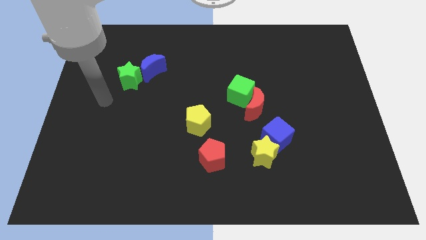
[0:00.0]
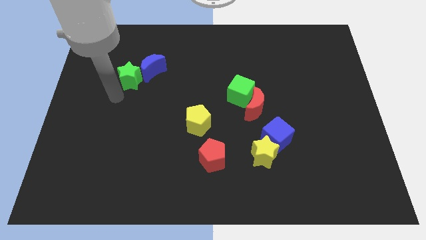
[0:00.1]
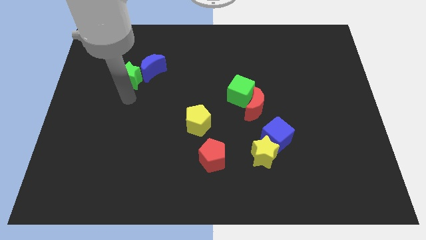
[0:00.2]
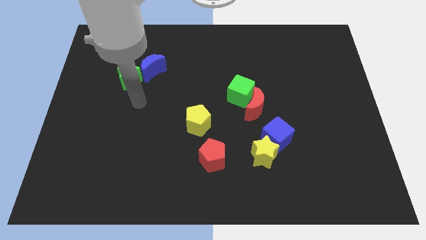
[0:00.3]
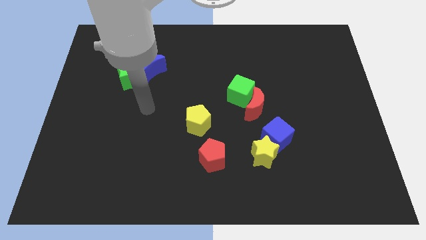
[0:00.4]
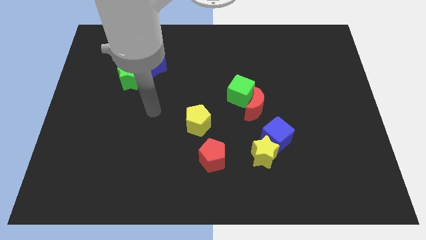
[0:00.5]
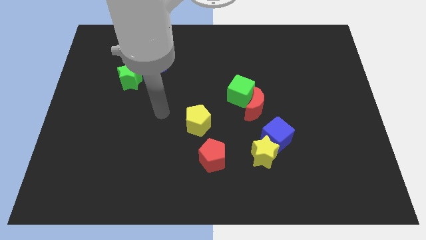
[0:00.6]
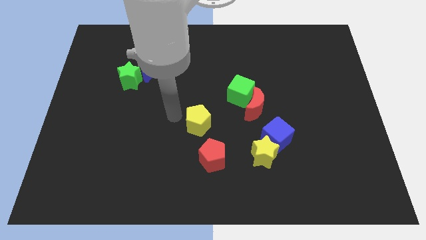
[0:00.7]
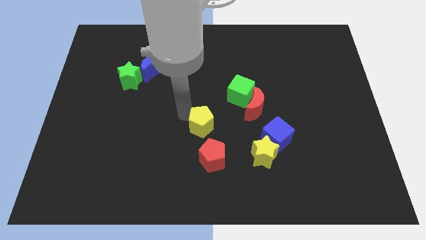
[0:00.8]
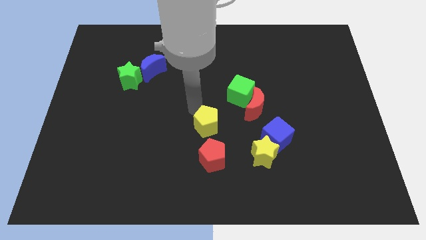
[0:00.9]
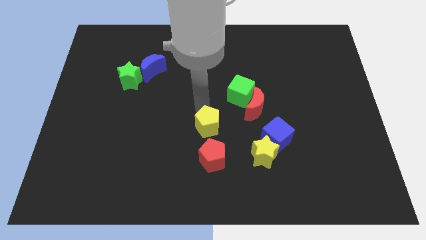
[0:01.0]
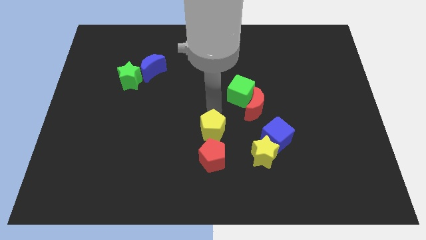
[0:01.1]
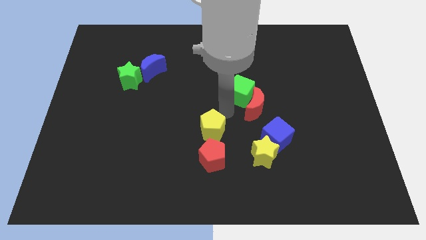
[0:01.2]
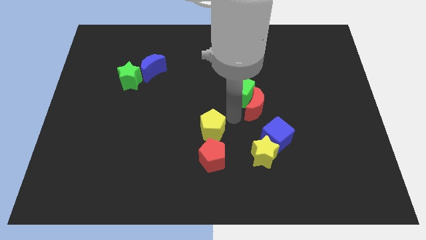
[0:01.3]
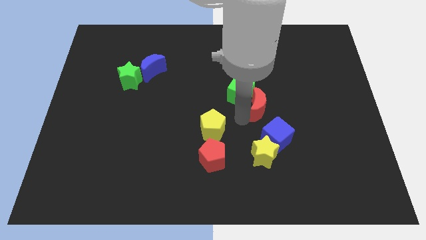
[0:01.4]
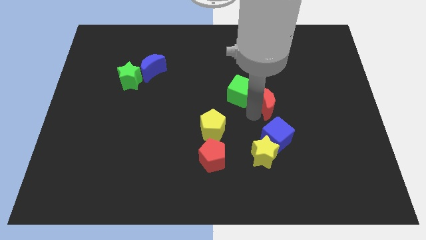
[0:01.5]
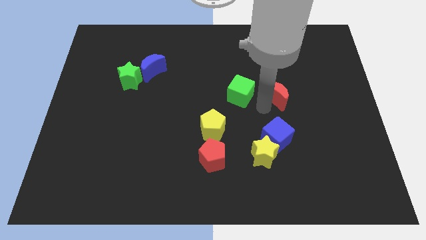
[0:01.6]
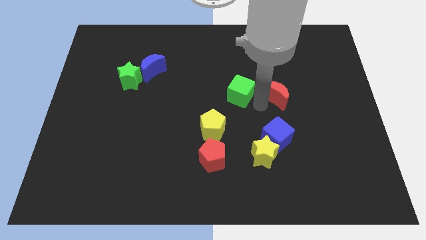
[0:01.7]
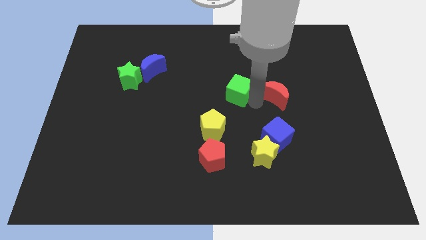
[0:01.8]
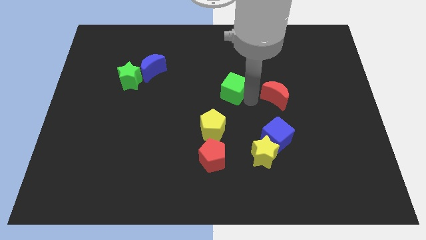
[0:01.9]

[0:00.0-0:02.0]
pull the green cube apart from the red moon

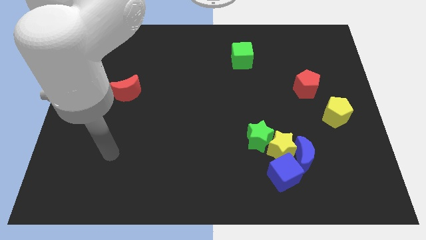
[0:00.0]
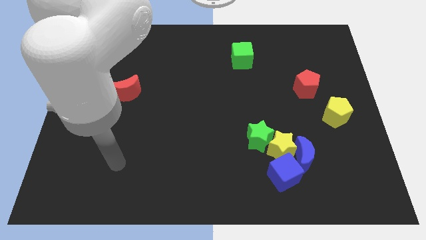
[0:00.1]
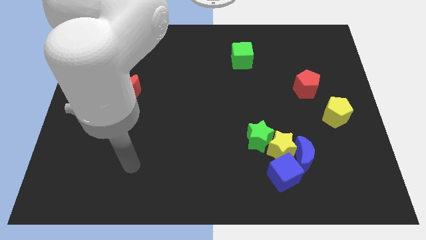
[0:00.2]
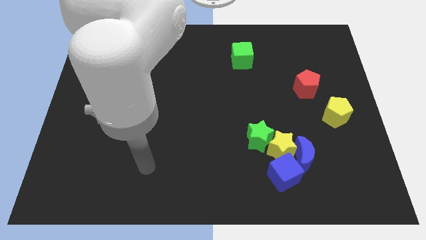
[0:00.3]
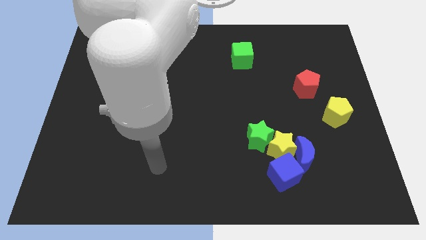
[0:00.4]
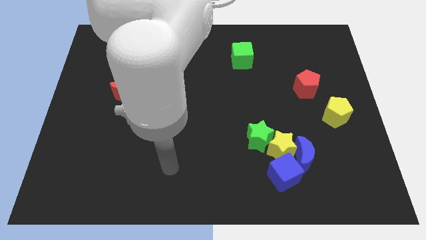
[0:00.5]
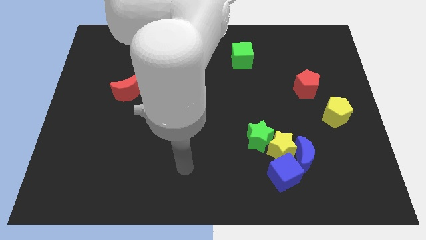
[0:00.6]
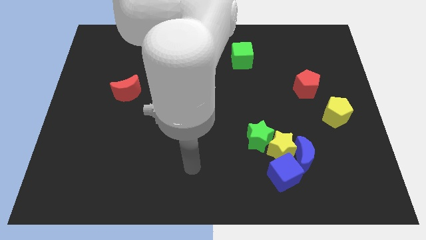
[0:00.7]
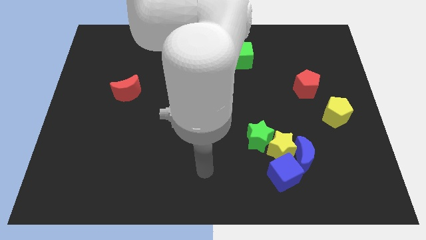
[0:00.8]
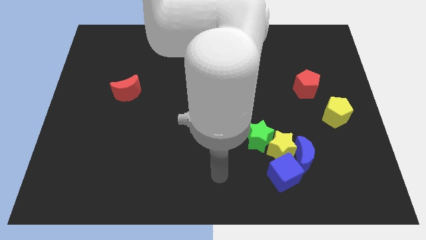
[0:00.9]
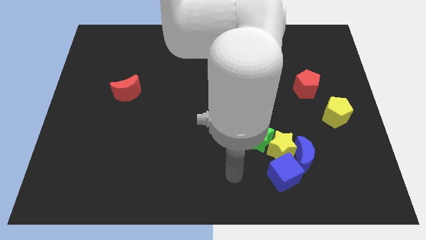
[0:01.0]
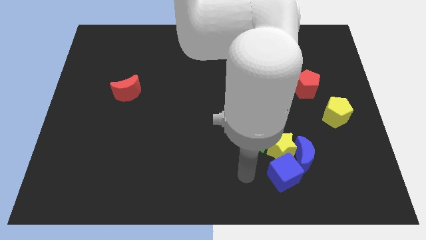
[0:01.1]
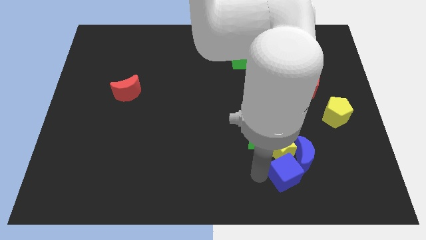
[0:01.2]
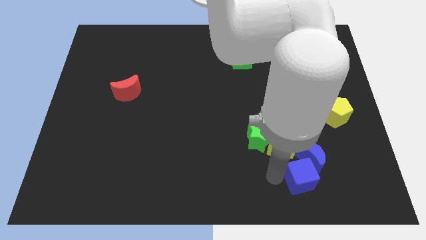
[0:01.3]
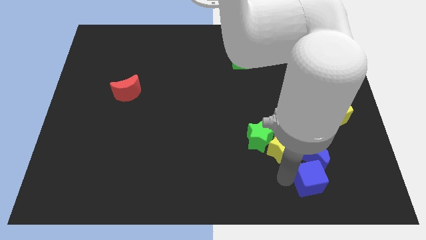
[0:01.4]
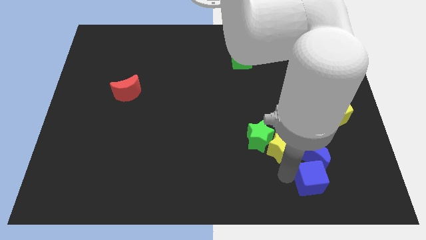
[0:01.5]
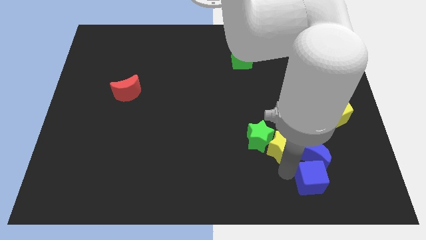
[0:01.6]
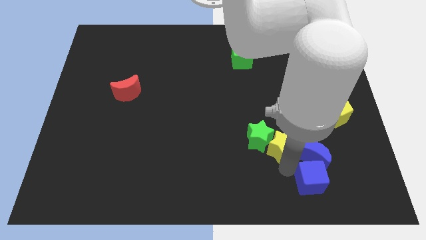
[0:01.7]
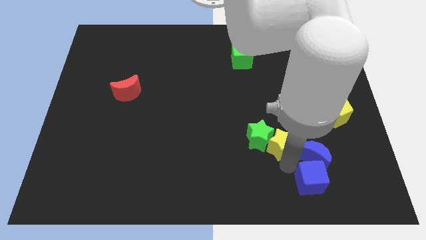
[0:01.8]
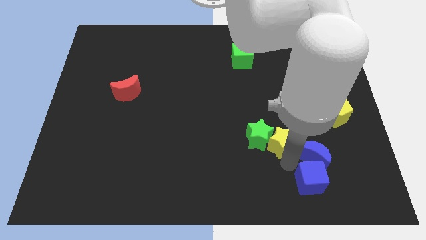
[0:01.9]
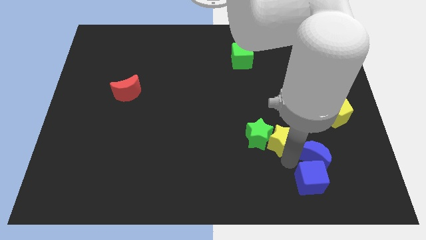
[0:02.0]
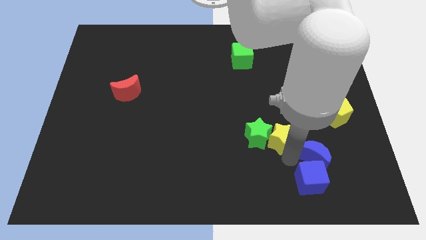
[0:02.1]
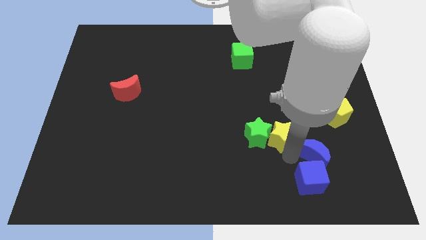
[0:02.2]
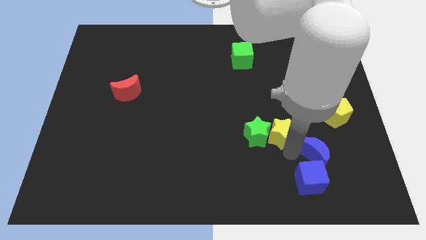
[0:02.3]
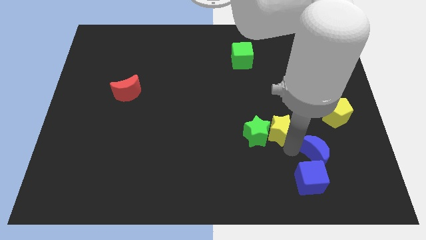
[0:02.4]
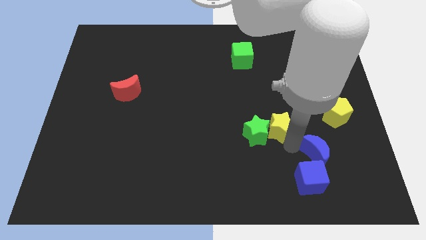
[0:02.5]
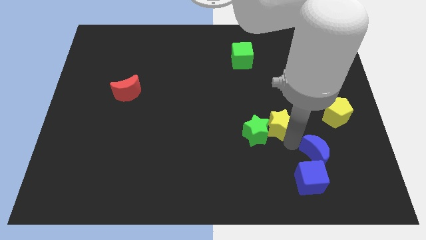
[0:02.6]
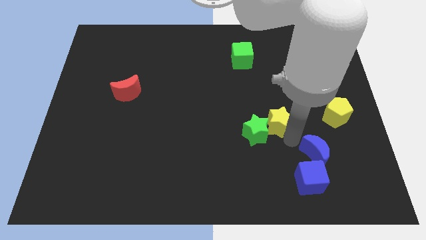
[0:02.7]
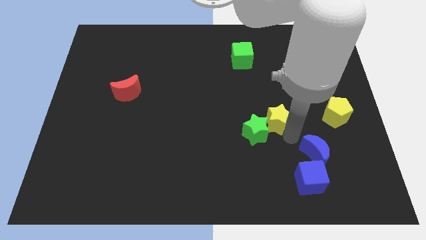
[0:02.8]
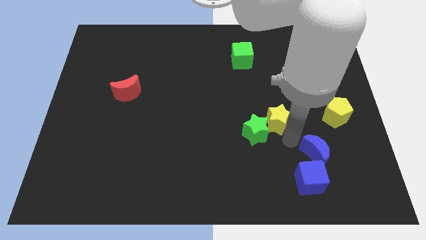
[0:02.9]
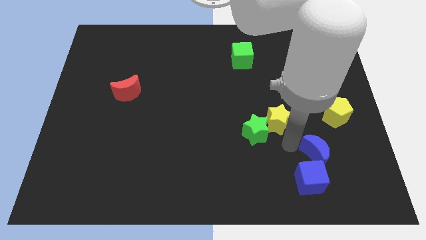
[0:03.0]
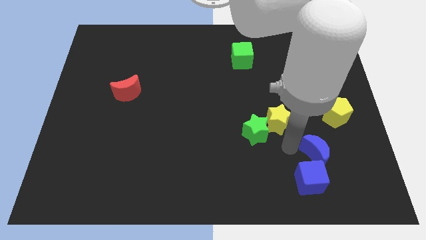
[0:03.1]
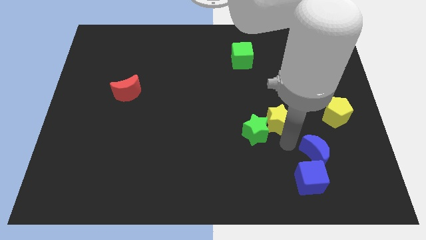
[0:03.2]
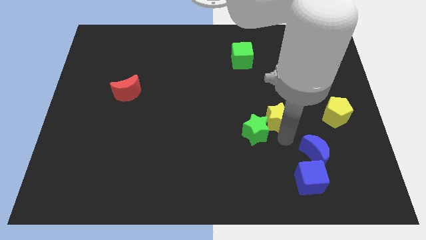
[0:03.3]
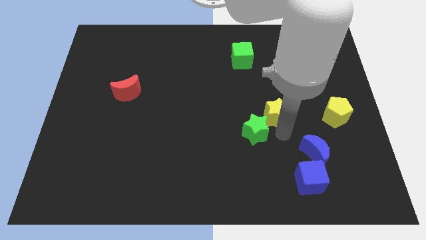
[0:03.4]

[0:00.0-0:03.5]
pull the yellow star apart from the blue moon, green star, and blue cube

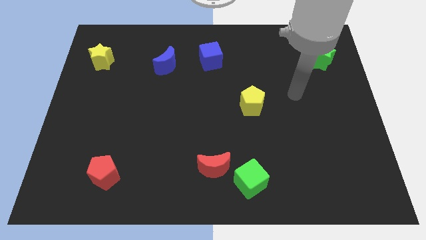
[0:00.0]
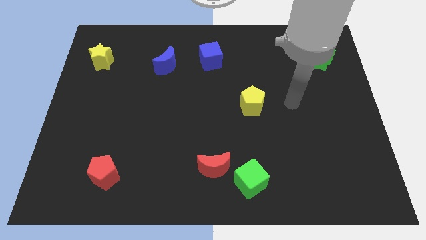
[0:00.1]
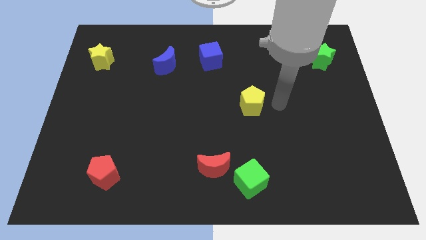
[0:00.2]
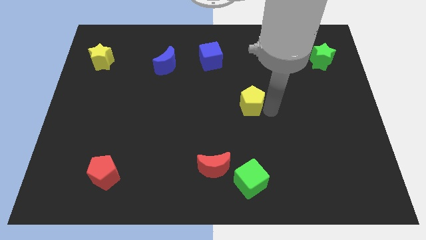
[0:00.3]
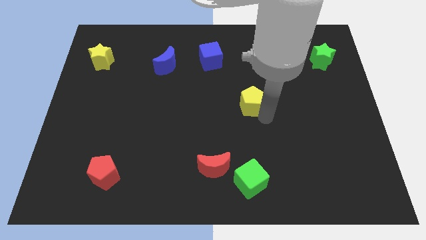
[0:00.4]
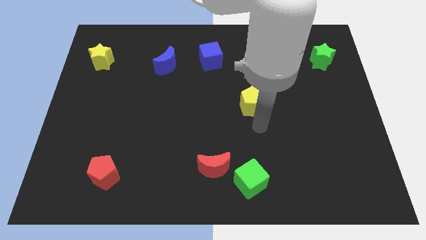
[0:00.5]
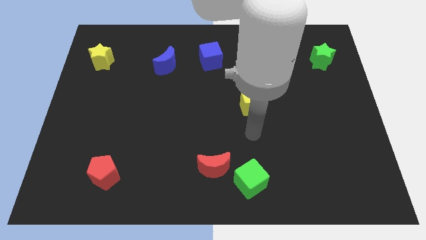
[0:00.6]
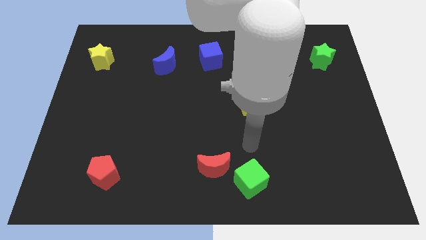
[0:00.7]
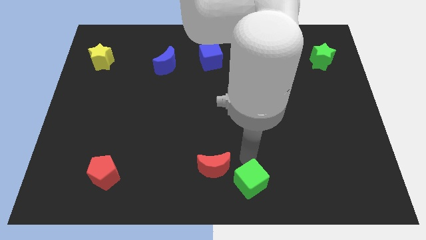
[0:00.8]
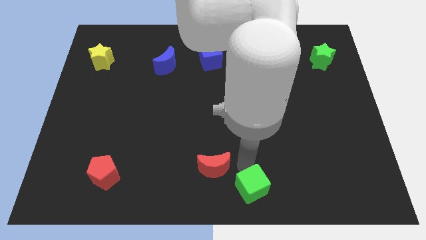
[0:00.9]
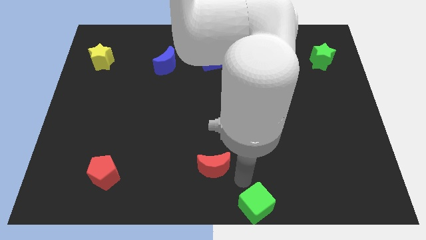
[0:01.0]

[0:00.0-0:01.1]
separate the red moon from the green cube

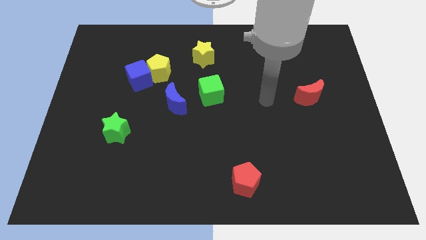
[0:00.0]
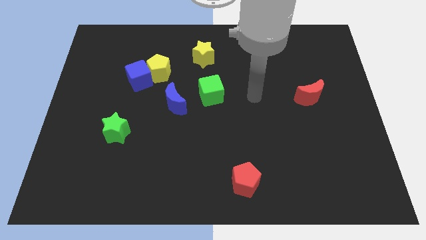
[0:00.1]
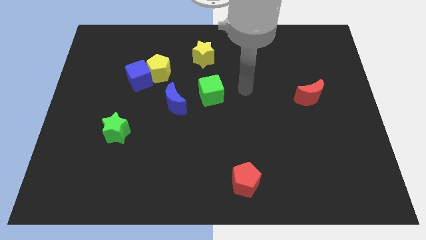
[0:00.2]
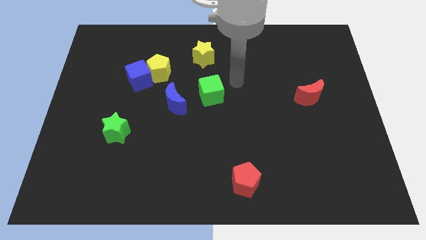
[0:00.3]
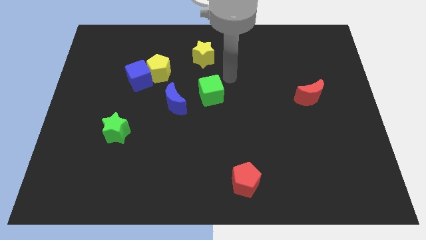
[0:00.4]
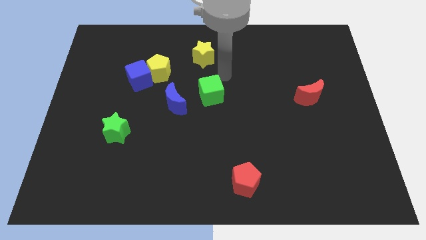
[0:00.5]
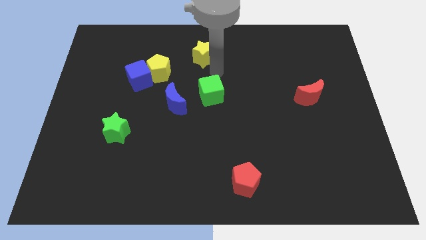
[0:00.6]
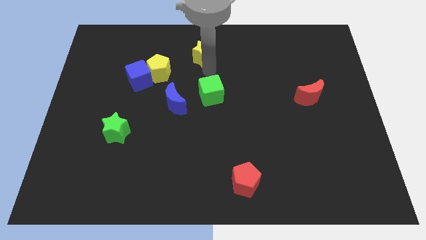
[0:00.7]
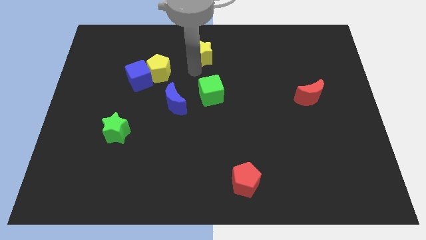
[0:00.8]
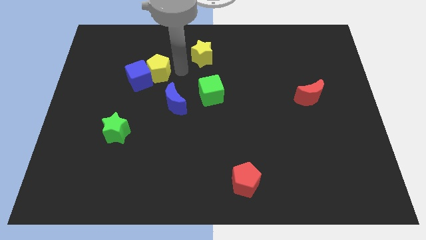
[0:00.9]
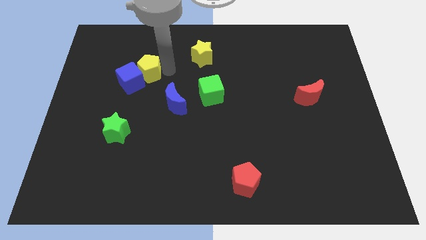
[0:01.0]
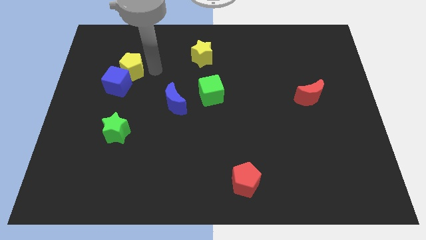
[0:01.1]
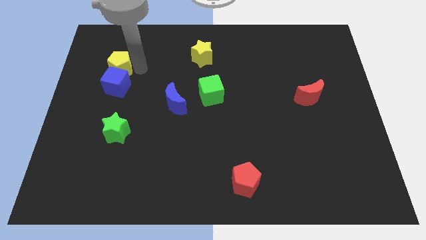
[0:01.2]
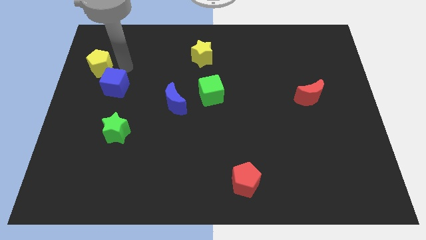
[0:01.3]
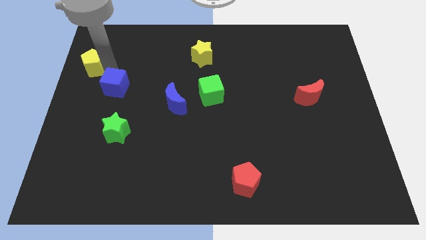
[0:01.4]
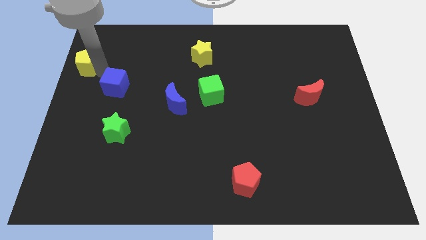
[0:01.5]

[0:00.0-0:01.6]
move the blue cube away from the yellow pentagon

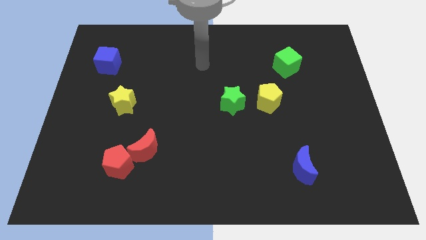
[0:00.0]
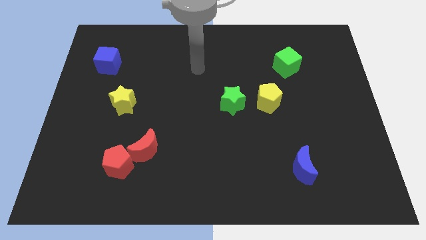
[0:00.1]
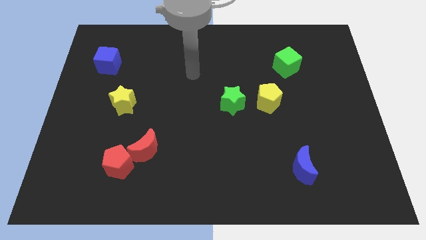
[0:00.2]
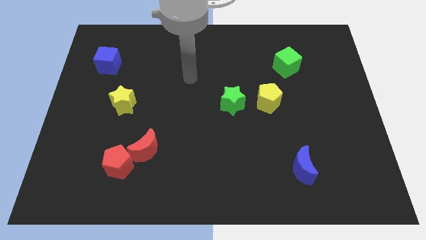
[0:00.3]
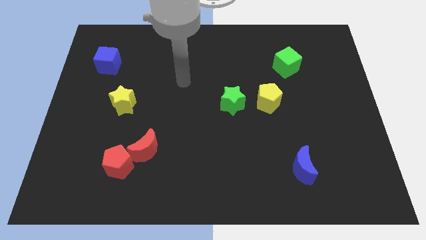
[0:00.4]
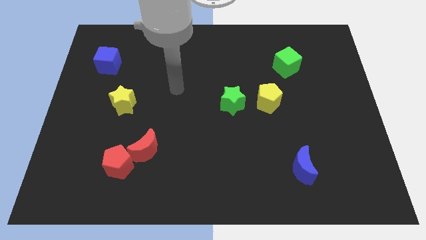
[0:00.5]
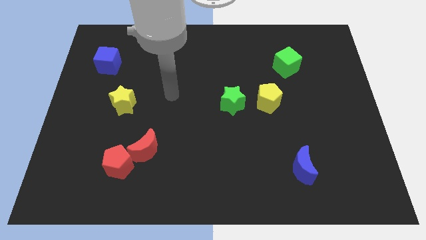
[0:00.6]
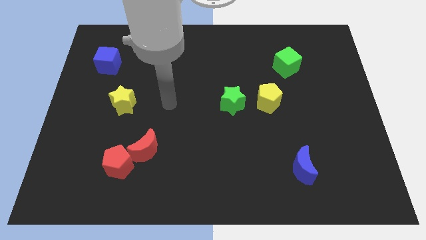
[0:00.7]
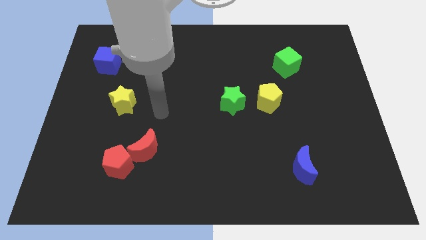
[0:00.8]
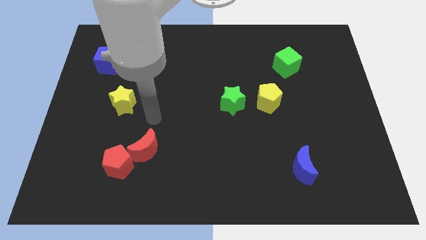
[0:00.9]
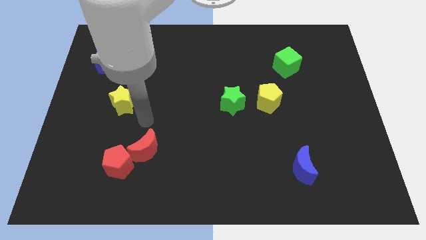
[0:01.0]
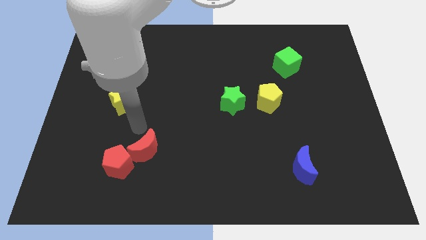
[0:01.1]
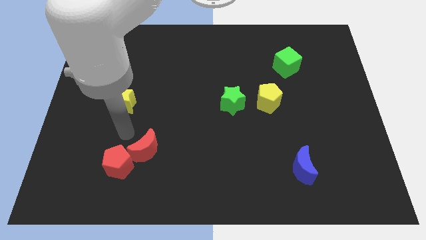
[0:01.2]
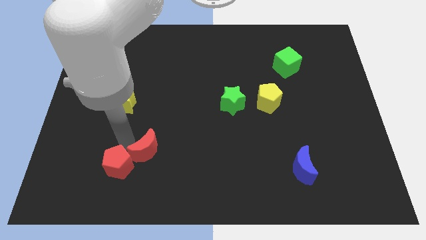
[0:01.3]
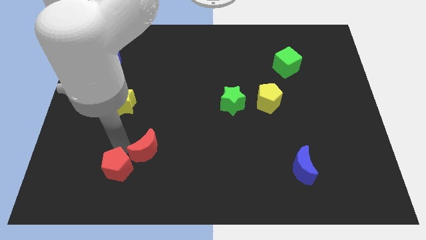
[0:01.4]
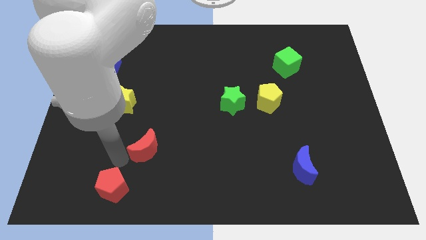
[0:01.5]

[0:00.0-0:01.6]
separate the red moon from the red pentagon
